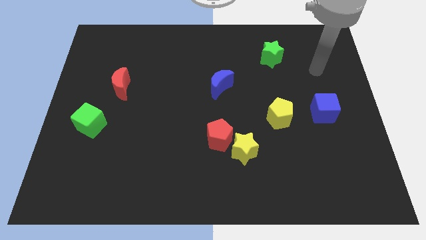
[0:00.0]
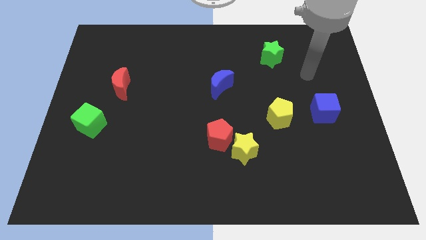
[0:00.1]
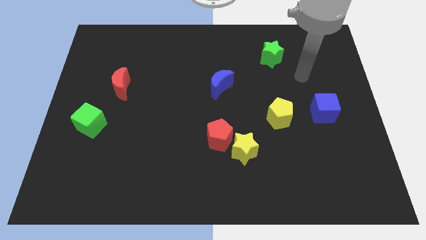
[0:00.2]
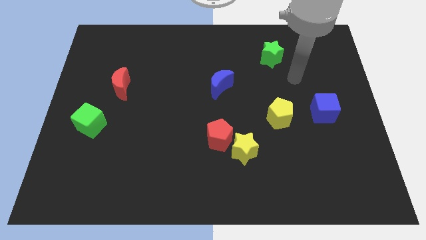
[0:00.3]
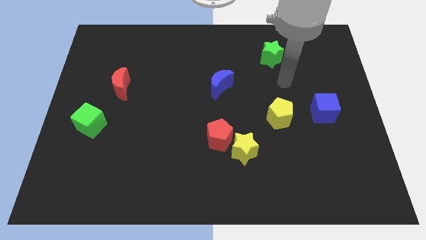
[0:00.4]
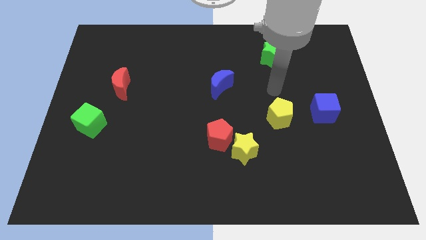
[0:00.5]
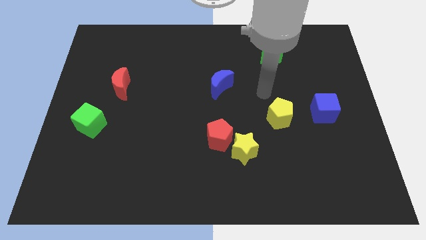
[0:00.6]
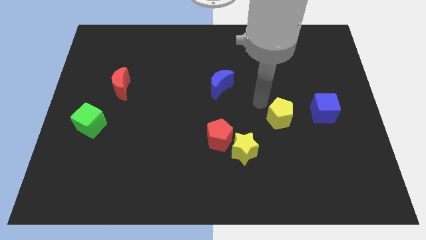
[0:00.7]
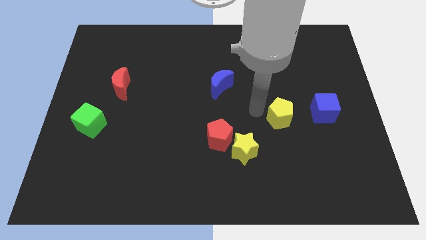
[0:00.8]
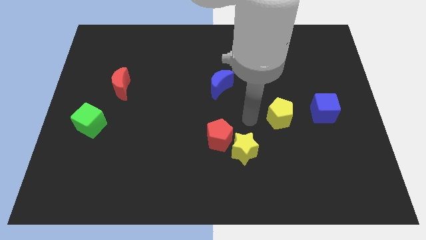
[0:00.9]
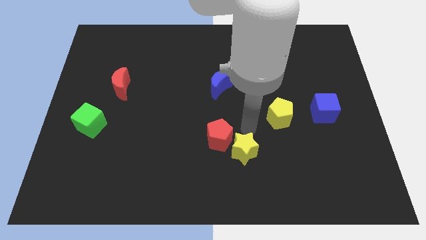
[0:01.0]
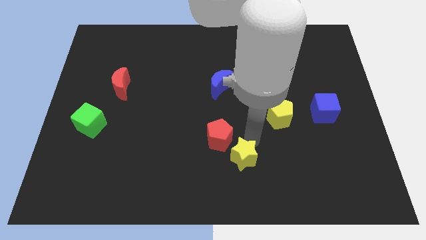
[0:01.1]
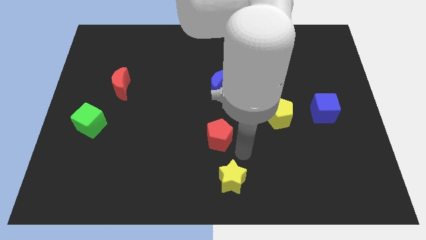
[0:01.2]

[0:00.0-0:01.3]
separate the red pentagon from the yellow star

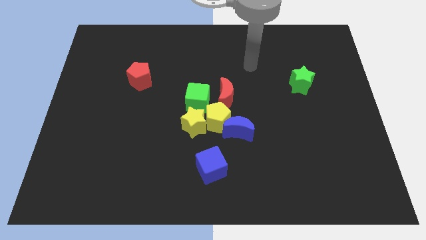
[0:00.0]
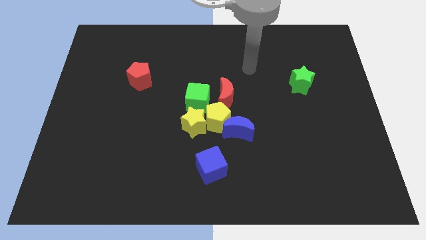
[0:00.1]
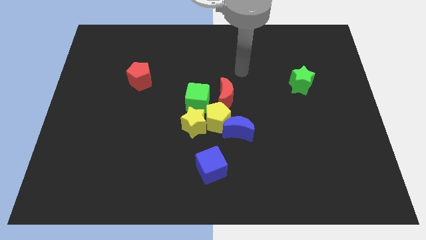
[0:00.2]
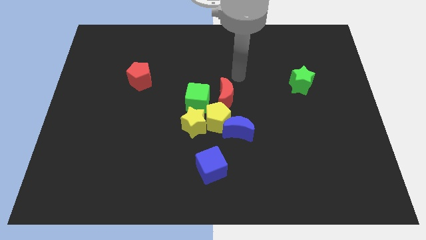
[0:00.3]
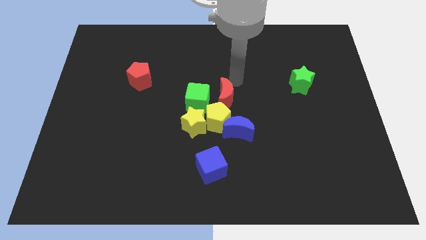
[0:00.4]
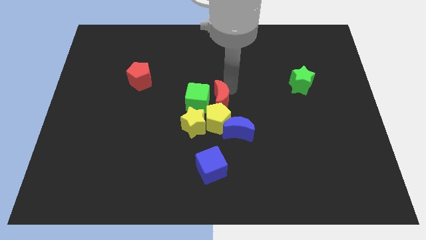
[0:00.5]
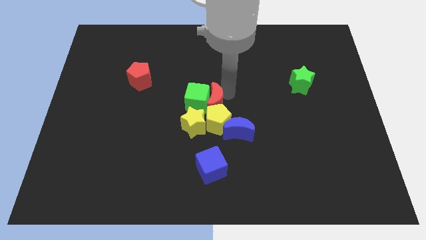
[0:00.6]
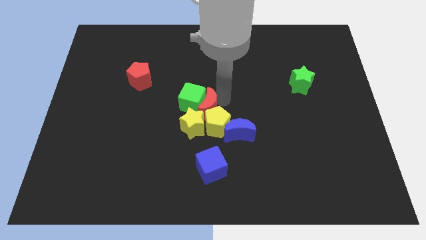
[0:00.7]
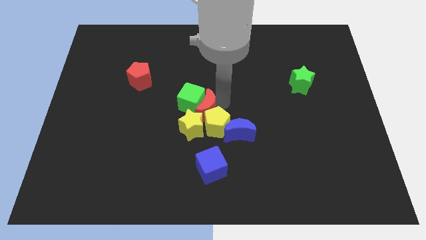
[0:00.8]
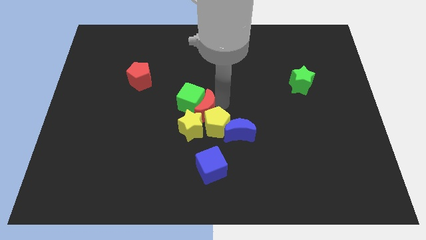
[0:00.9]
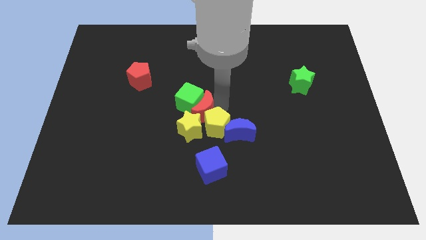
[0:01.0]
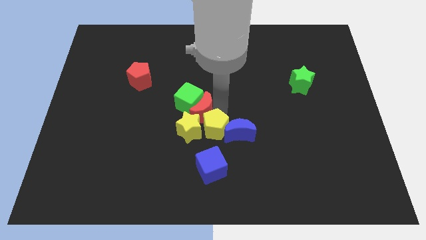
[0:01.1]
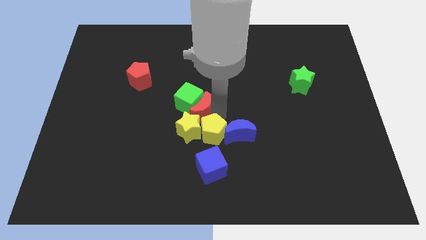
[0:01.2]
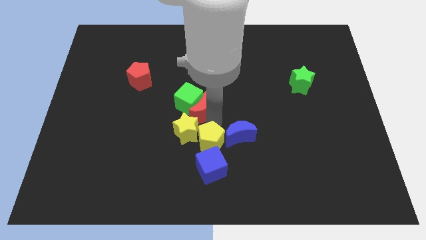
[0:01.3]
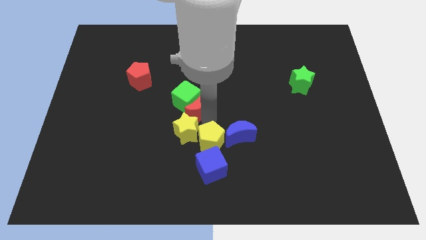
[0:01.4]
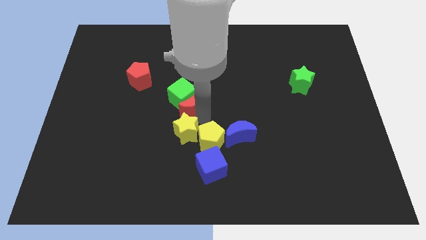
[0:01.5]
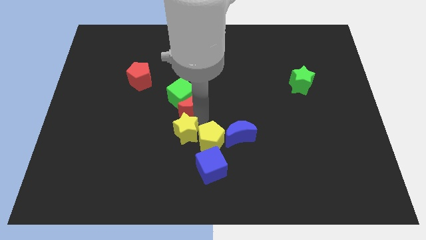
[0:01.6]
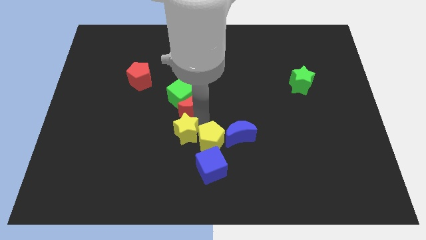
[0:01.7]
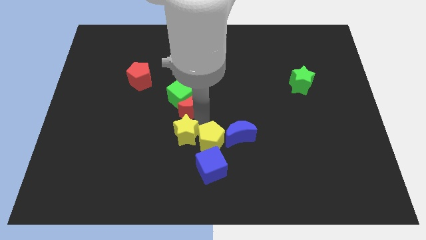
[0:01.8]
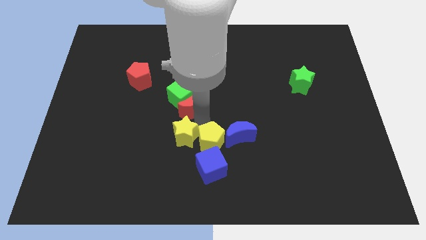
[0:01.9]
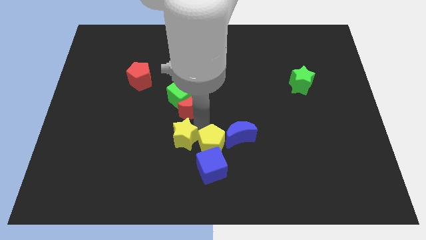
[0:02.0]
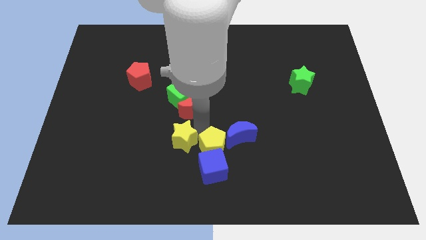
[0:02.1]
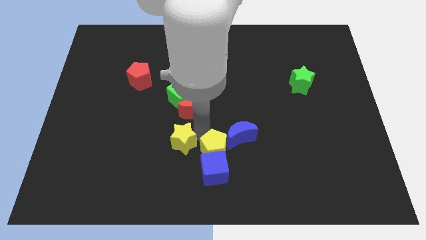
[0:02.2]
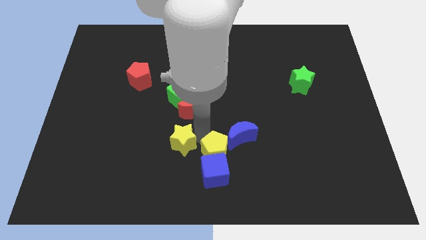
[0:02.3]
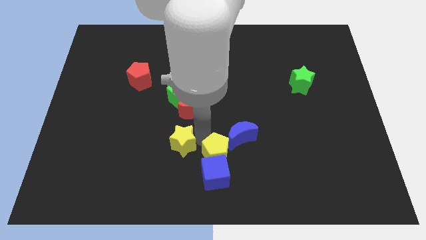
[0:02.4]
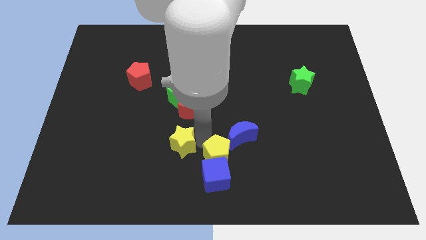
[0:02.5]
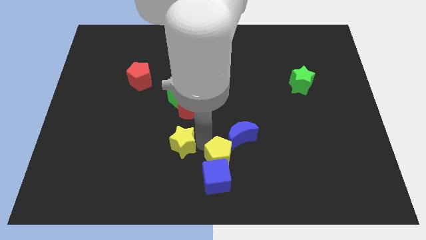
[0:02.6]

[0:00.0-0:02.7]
move the yellow pentagon away from the group

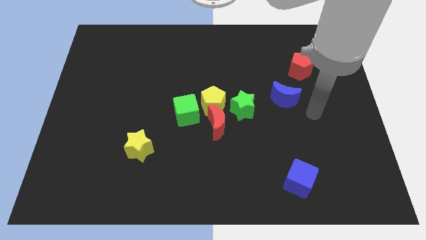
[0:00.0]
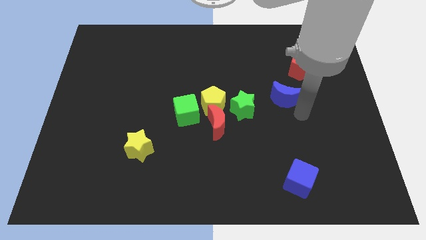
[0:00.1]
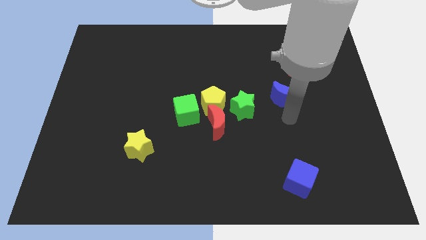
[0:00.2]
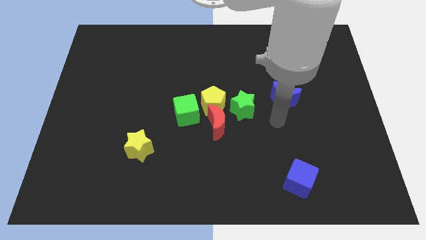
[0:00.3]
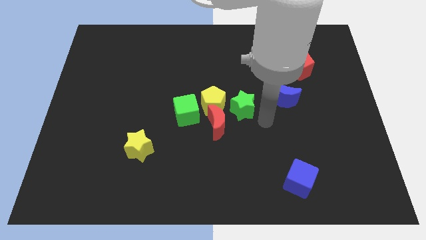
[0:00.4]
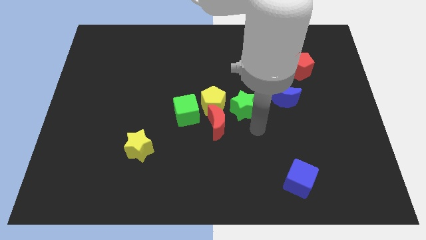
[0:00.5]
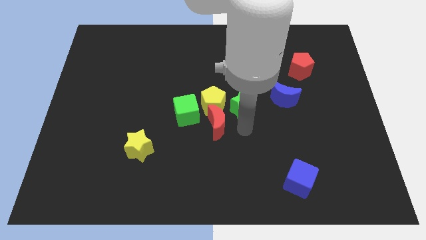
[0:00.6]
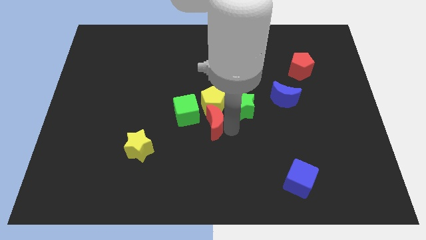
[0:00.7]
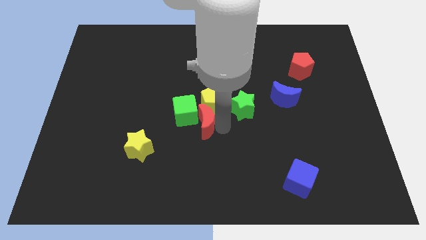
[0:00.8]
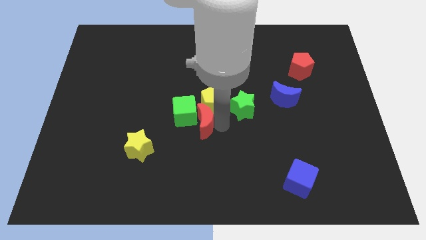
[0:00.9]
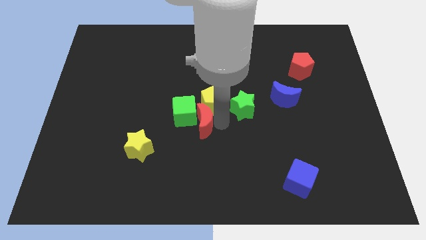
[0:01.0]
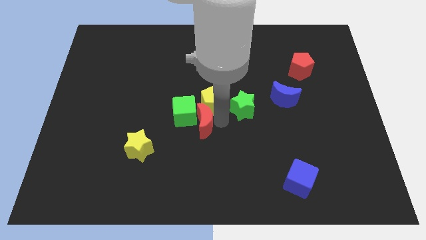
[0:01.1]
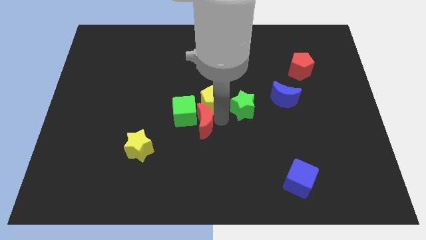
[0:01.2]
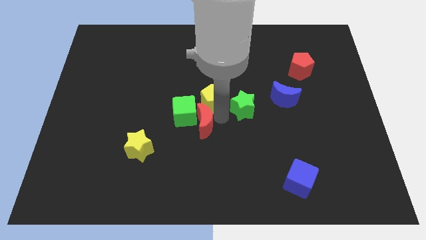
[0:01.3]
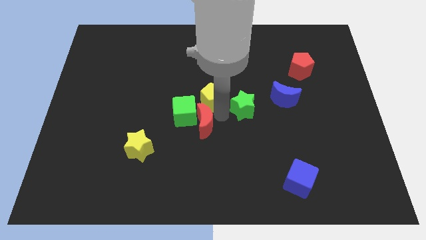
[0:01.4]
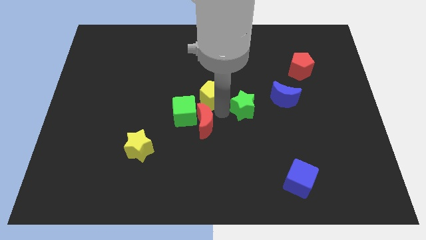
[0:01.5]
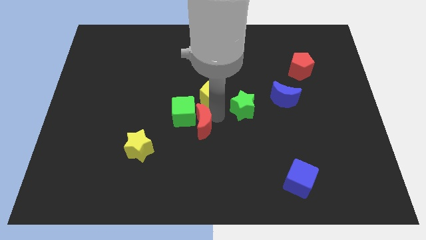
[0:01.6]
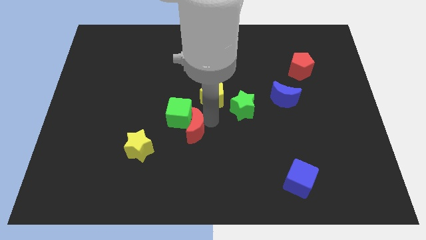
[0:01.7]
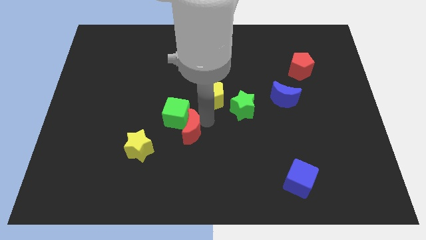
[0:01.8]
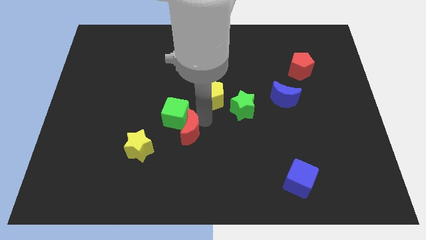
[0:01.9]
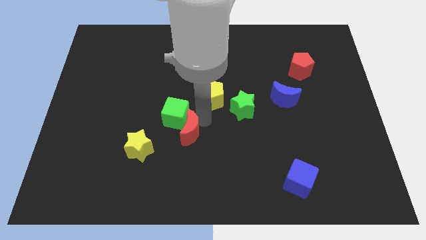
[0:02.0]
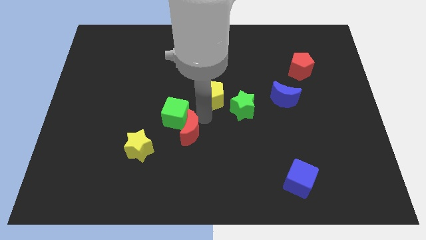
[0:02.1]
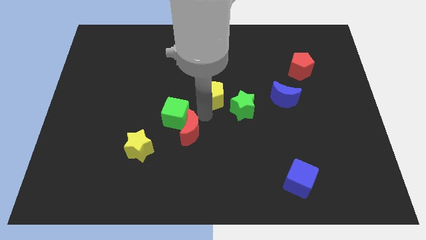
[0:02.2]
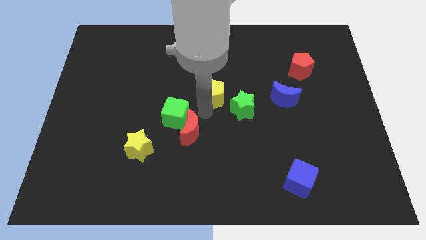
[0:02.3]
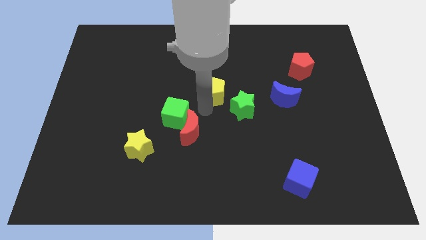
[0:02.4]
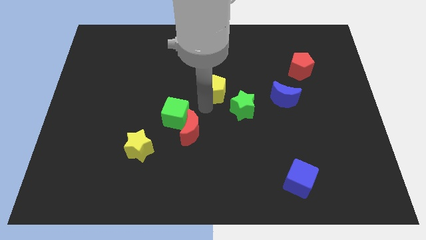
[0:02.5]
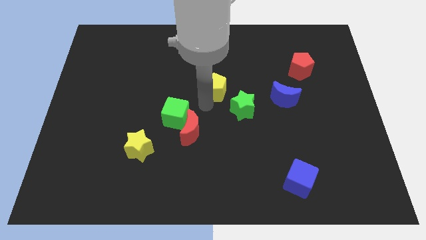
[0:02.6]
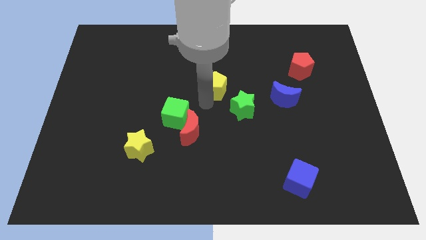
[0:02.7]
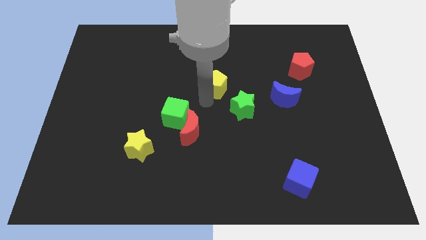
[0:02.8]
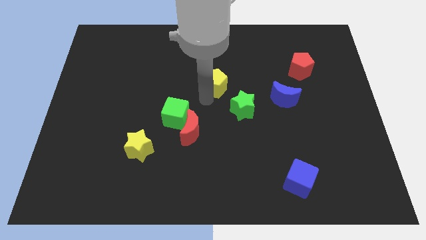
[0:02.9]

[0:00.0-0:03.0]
move the yellow pentagon away from the clump

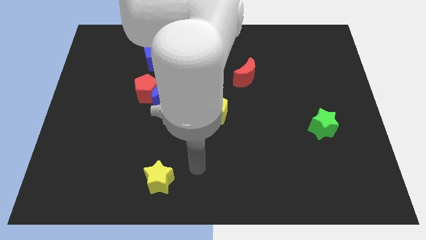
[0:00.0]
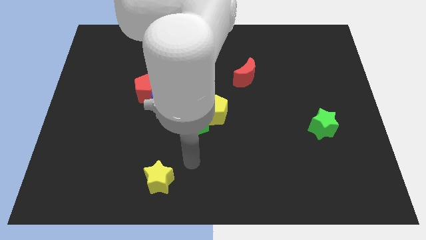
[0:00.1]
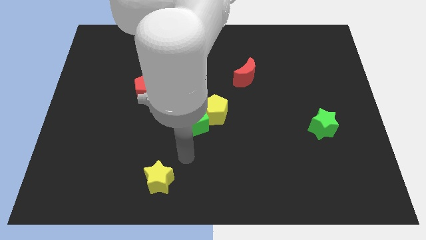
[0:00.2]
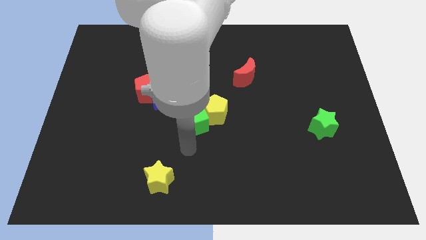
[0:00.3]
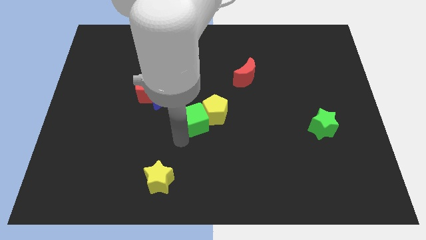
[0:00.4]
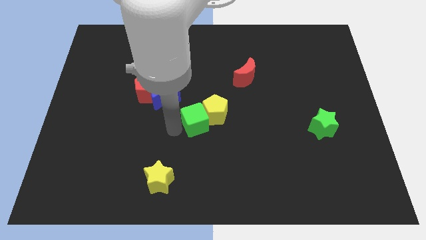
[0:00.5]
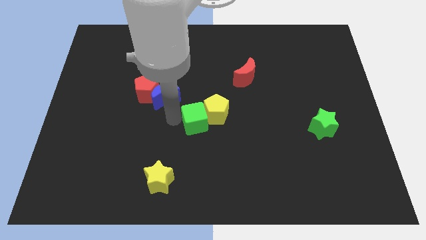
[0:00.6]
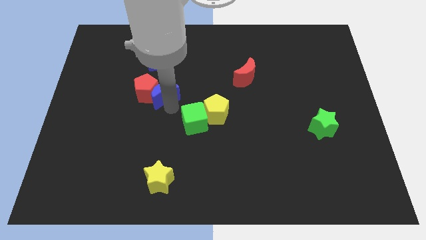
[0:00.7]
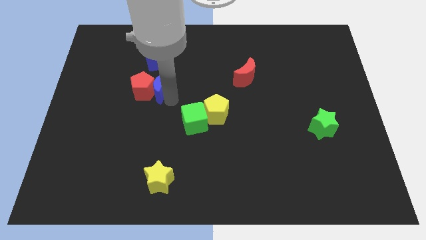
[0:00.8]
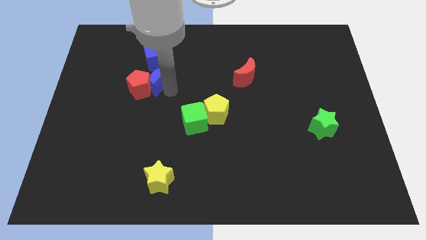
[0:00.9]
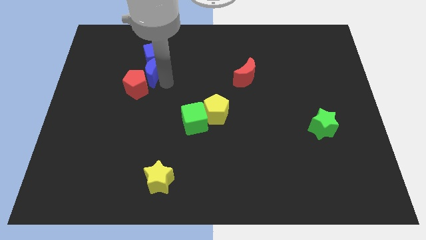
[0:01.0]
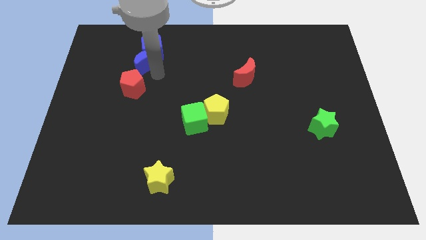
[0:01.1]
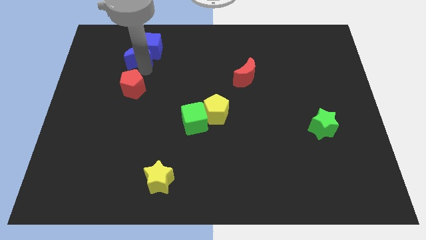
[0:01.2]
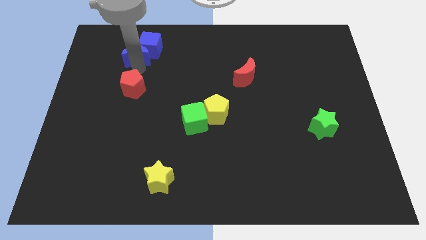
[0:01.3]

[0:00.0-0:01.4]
pull the red pentagon apart from the blue moon

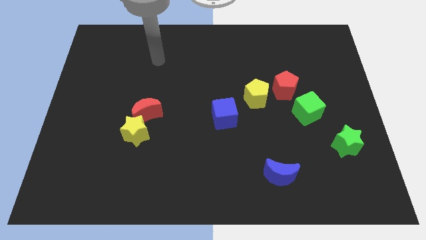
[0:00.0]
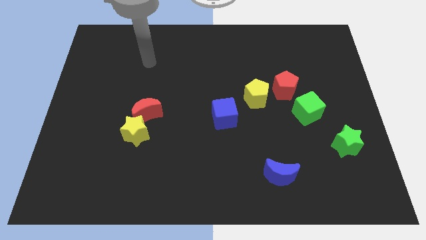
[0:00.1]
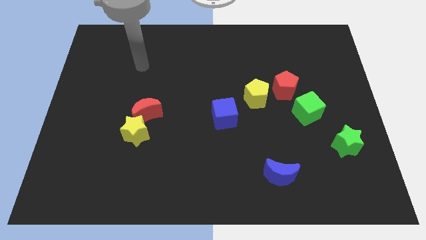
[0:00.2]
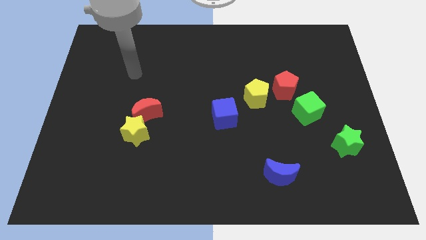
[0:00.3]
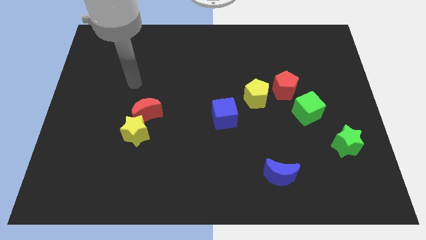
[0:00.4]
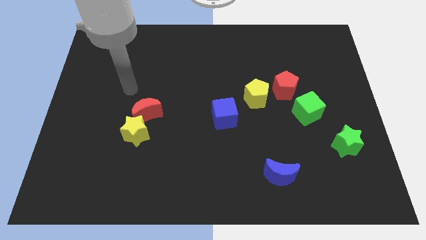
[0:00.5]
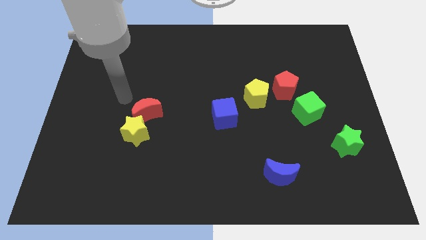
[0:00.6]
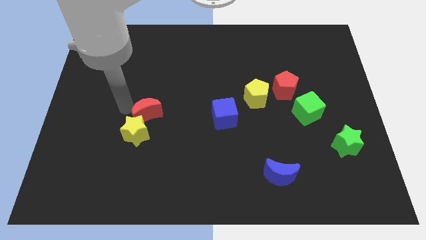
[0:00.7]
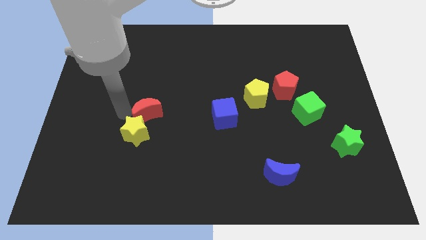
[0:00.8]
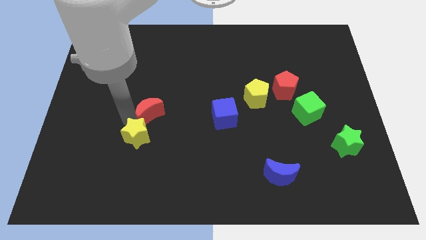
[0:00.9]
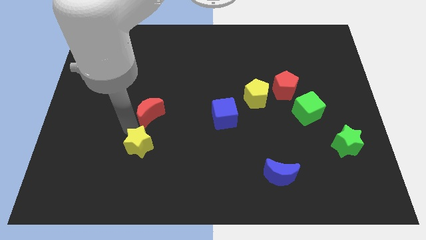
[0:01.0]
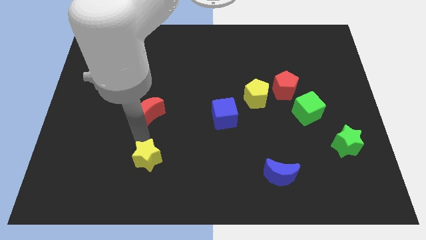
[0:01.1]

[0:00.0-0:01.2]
move the red moon away from the yellow star
